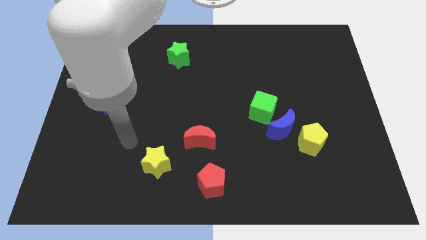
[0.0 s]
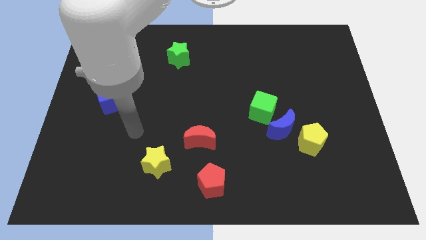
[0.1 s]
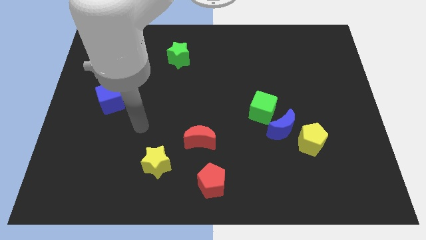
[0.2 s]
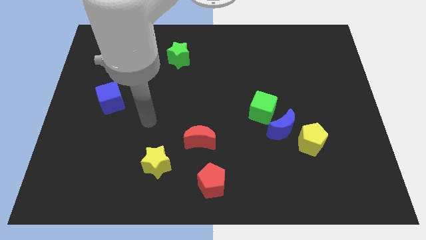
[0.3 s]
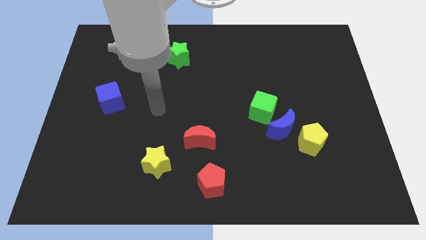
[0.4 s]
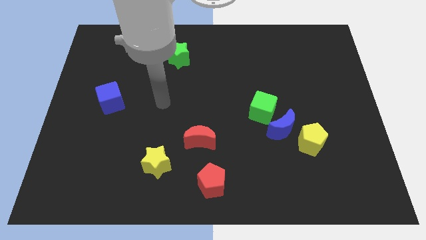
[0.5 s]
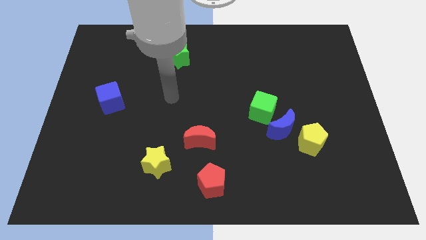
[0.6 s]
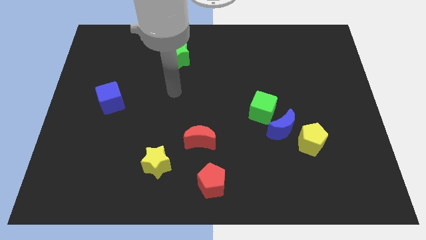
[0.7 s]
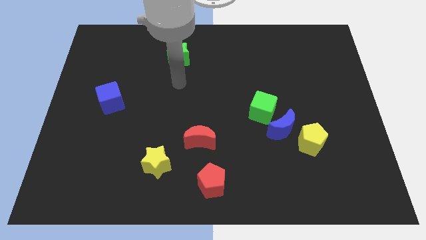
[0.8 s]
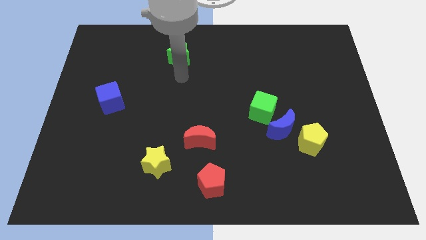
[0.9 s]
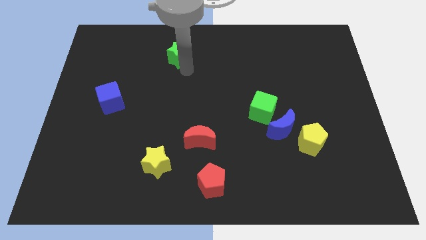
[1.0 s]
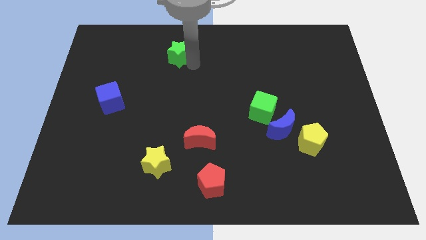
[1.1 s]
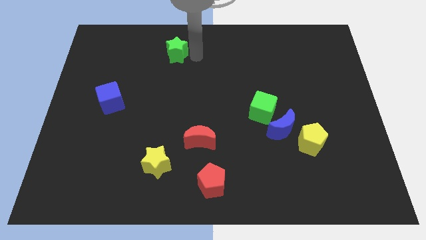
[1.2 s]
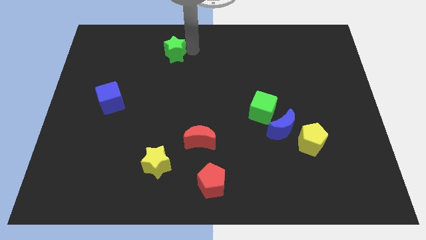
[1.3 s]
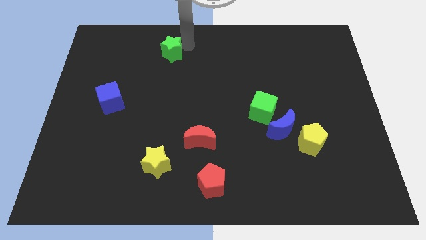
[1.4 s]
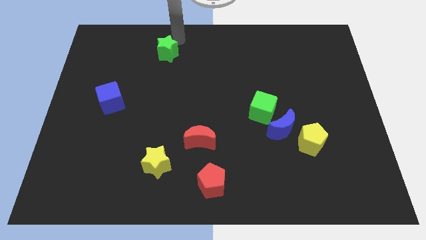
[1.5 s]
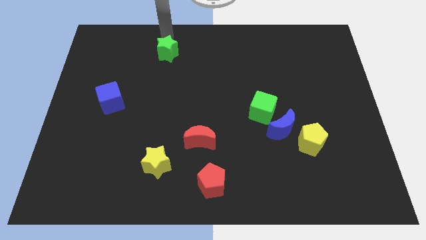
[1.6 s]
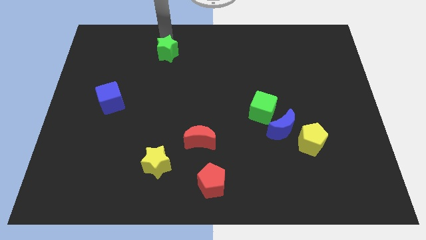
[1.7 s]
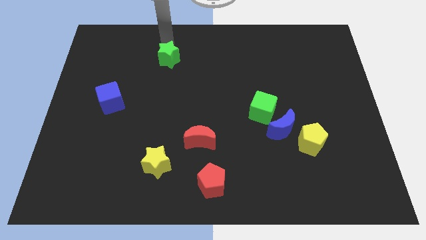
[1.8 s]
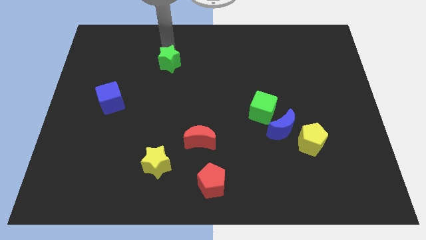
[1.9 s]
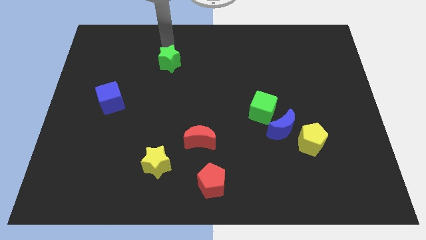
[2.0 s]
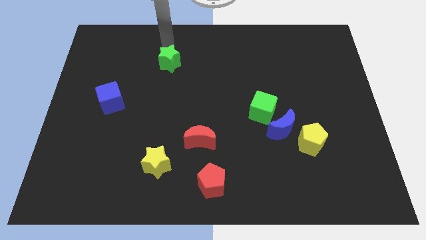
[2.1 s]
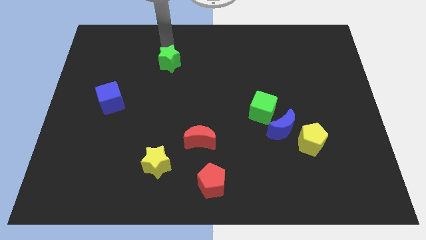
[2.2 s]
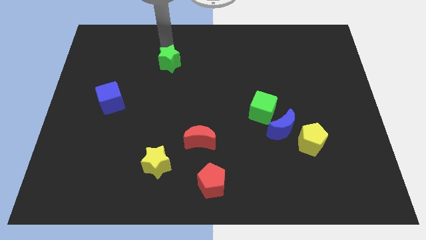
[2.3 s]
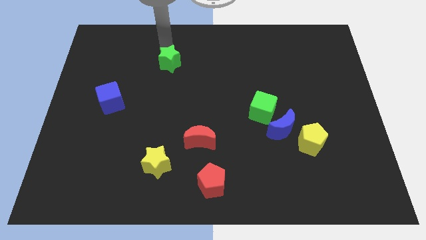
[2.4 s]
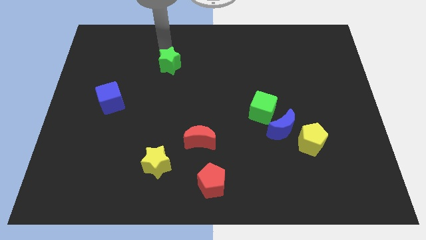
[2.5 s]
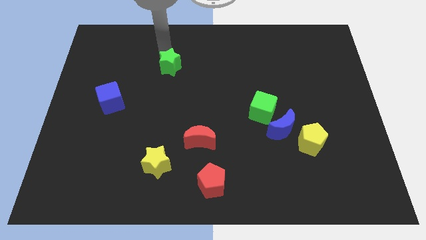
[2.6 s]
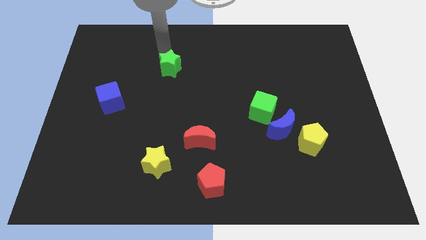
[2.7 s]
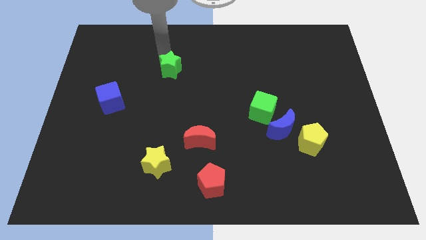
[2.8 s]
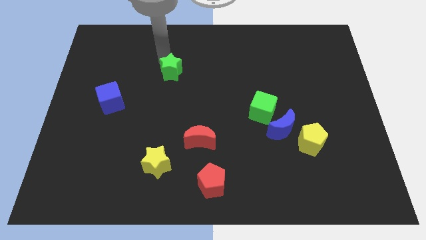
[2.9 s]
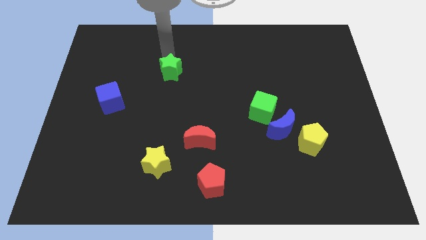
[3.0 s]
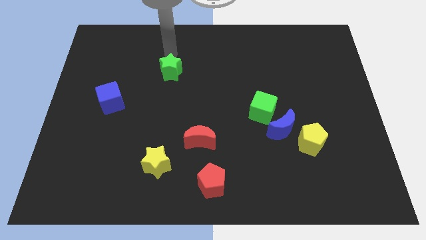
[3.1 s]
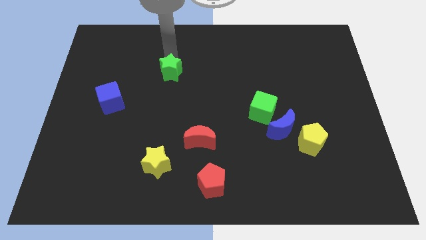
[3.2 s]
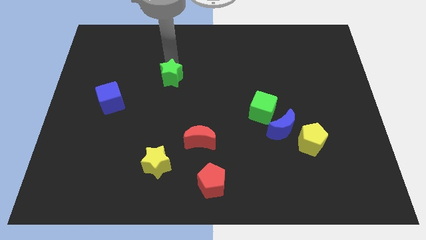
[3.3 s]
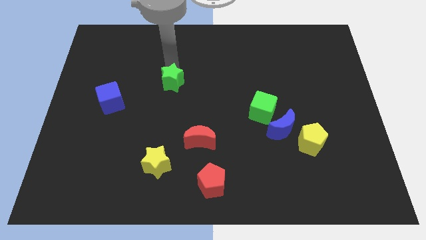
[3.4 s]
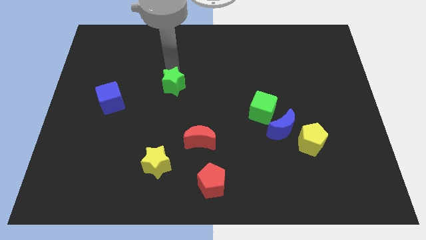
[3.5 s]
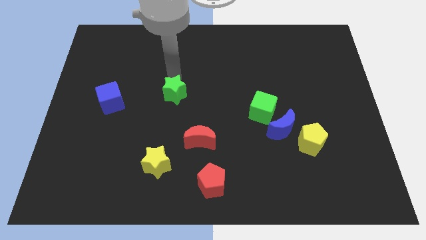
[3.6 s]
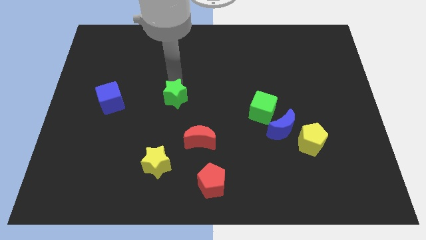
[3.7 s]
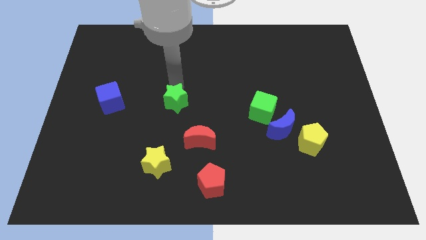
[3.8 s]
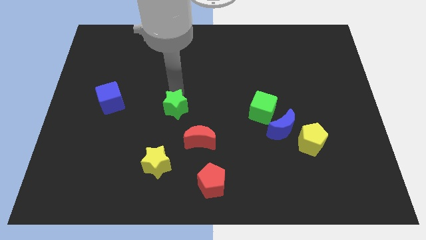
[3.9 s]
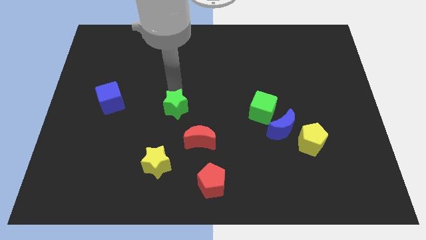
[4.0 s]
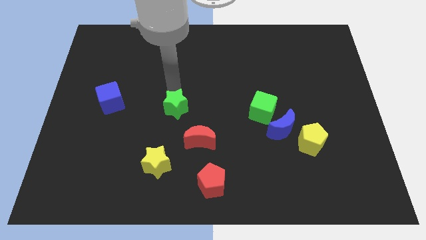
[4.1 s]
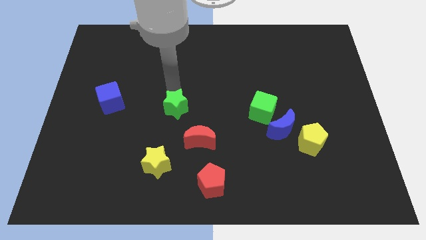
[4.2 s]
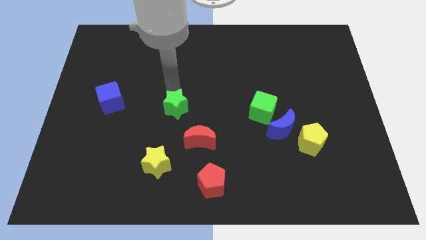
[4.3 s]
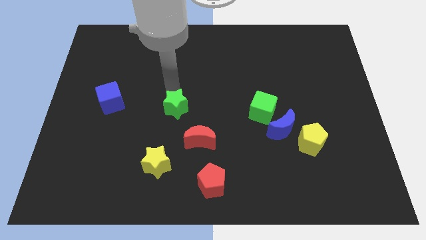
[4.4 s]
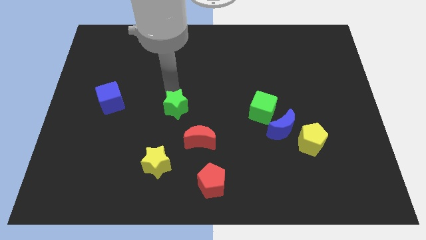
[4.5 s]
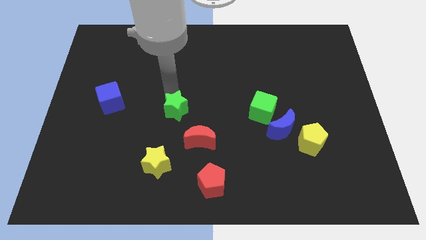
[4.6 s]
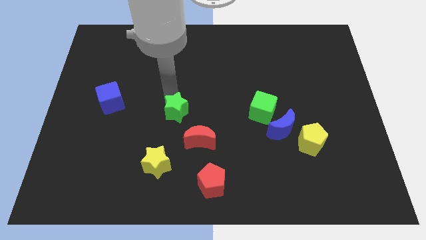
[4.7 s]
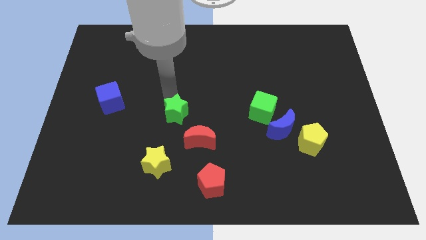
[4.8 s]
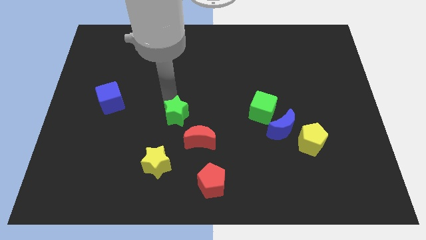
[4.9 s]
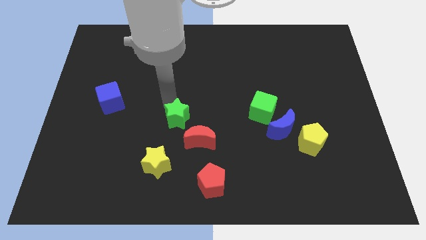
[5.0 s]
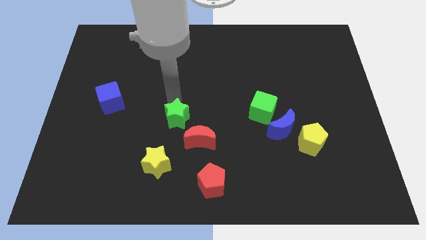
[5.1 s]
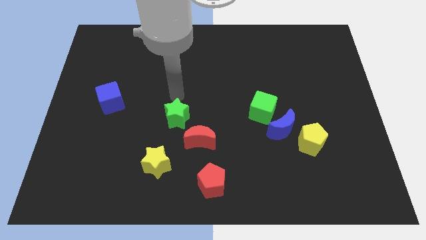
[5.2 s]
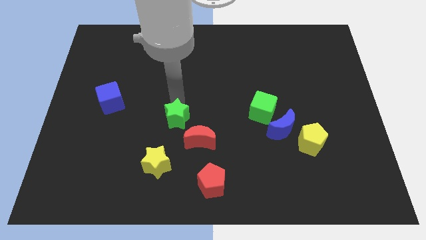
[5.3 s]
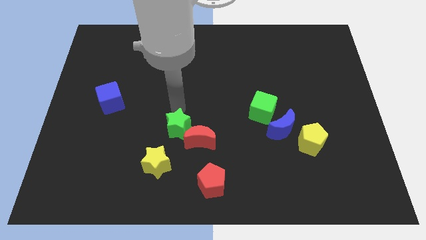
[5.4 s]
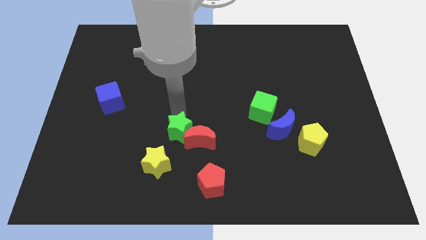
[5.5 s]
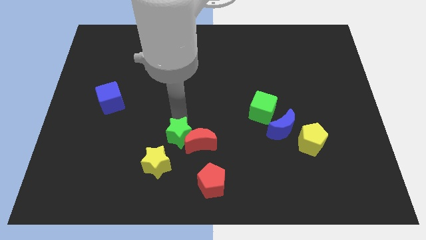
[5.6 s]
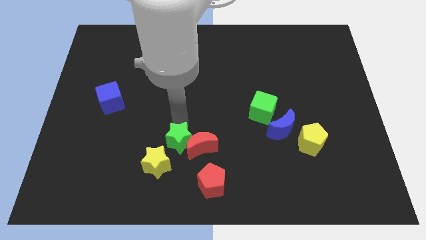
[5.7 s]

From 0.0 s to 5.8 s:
slide the green star diagonally up and to the left of the red pentagon

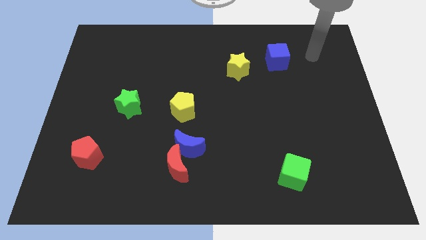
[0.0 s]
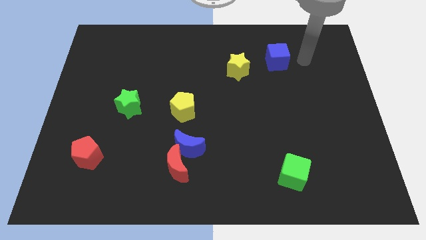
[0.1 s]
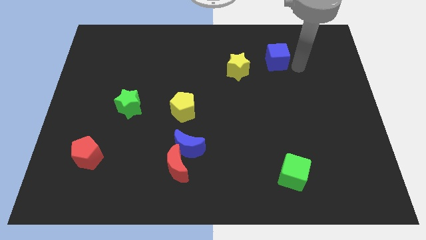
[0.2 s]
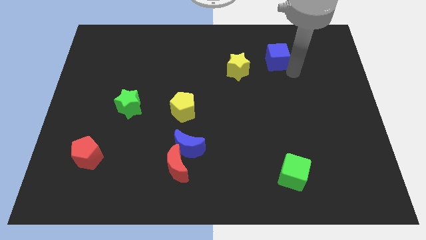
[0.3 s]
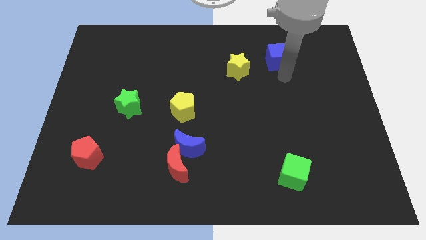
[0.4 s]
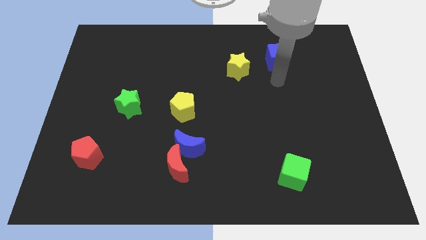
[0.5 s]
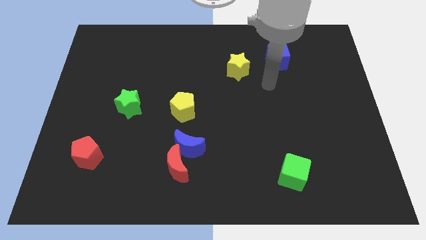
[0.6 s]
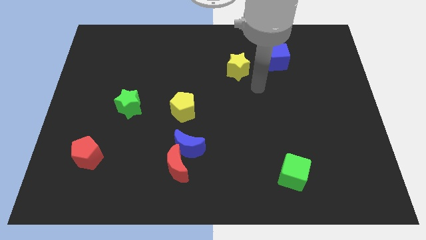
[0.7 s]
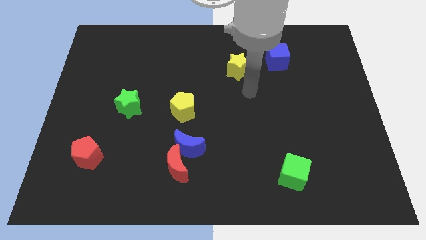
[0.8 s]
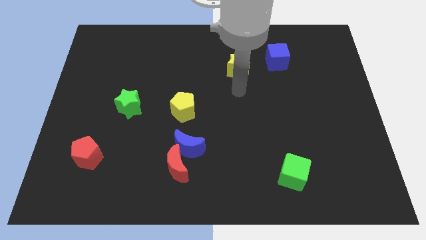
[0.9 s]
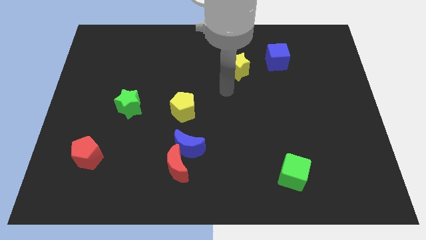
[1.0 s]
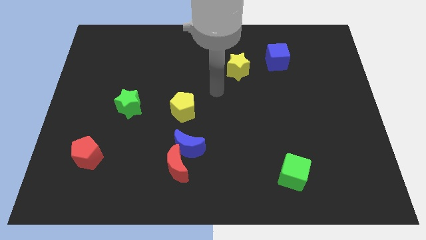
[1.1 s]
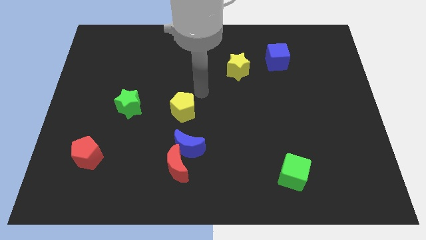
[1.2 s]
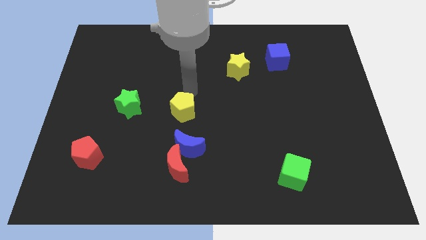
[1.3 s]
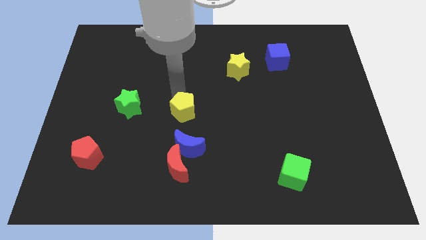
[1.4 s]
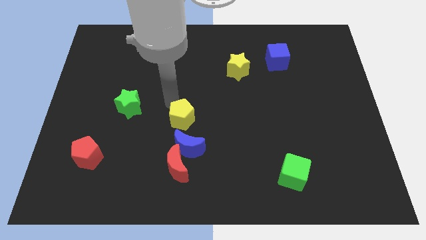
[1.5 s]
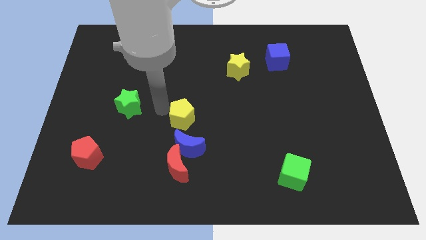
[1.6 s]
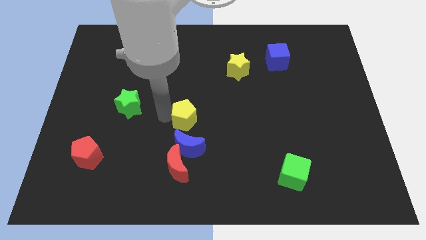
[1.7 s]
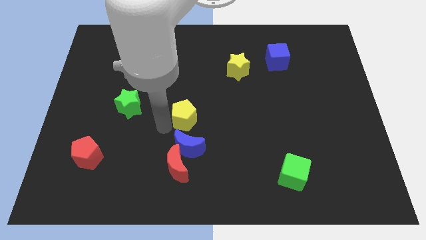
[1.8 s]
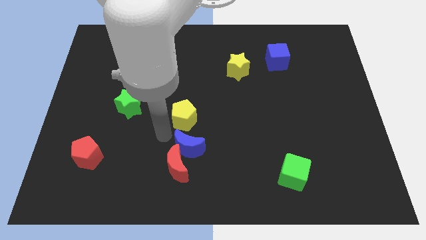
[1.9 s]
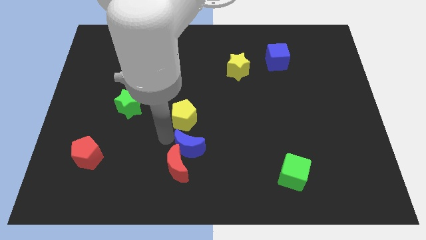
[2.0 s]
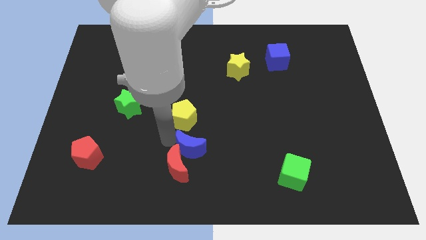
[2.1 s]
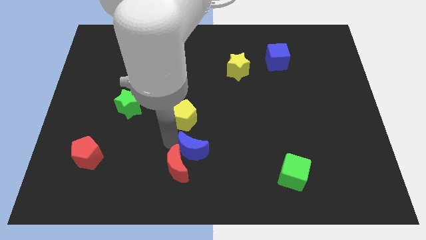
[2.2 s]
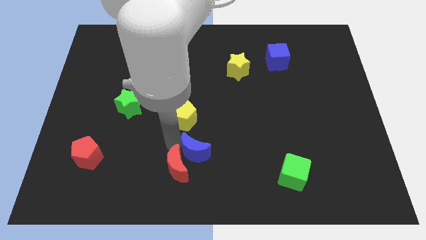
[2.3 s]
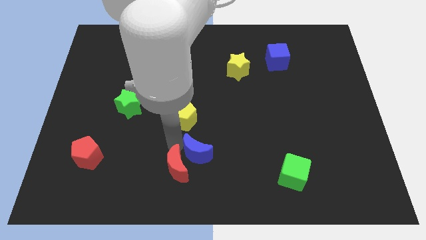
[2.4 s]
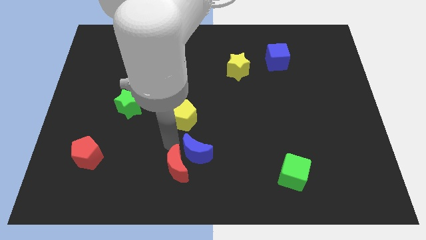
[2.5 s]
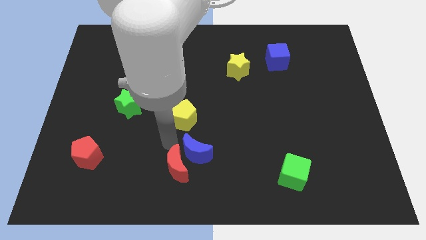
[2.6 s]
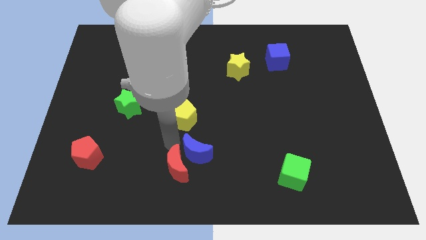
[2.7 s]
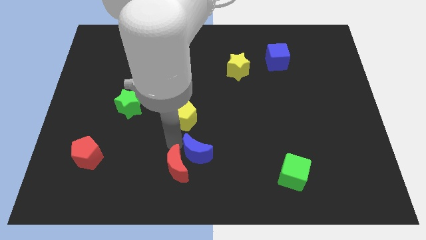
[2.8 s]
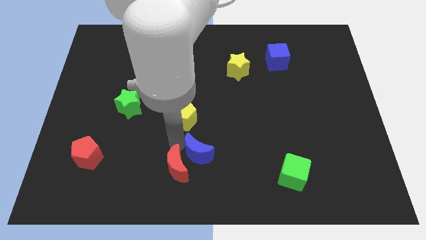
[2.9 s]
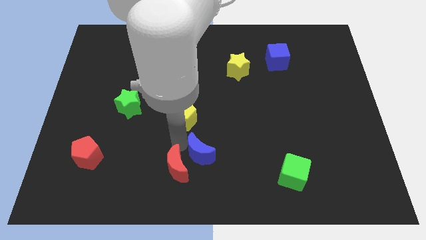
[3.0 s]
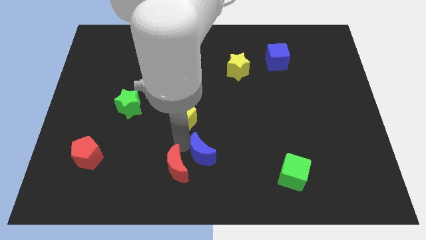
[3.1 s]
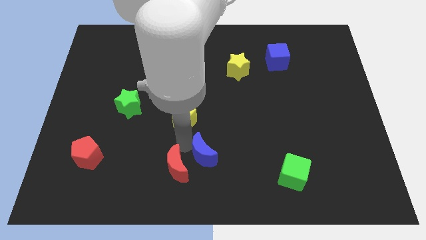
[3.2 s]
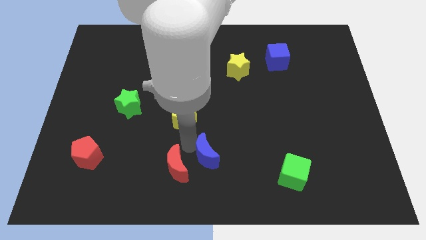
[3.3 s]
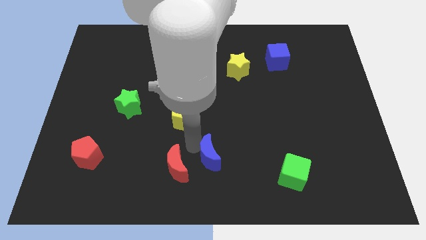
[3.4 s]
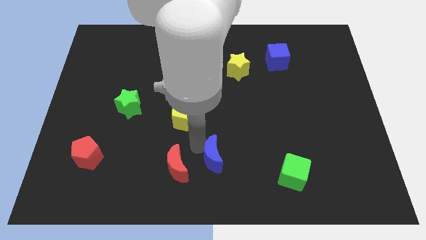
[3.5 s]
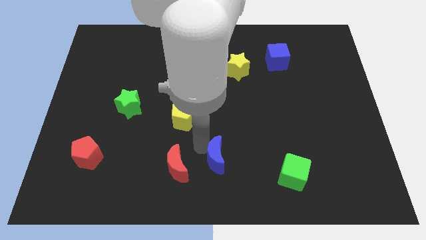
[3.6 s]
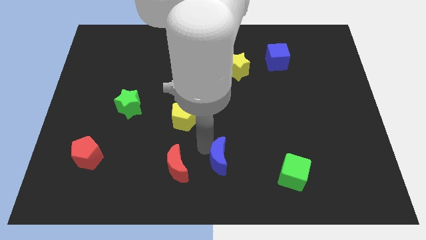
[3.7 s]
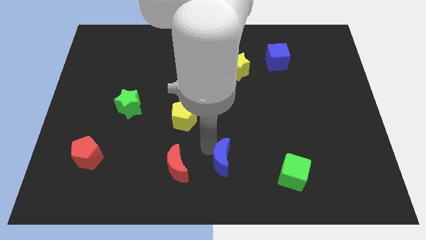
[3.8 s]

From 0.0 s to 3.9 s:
push the blue moon to the left side of the green cube
